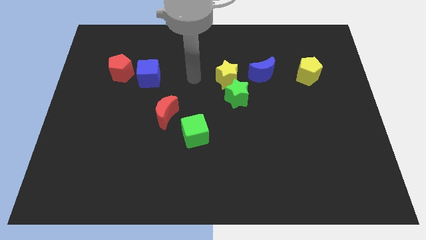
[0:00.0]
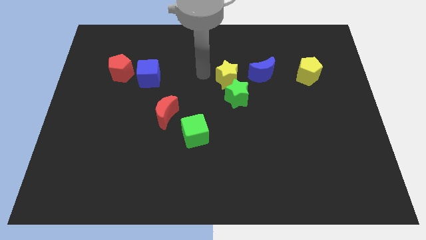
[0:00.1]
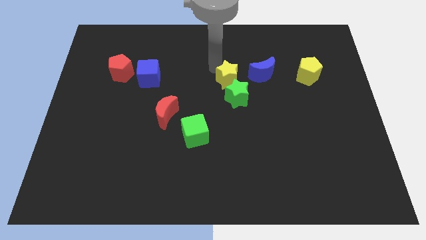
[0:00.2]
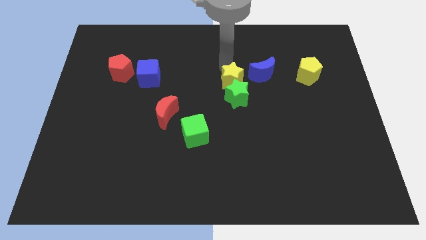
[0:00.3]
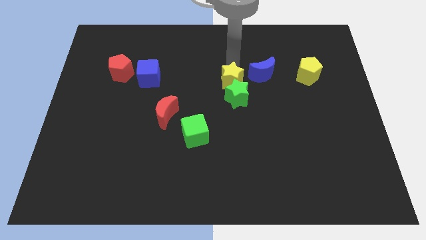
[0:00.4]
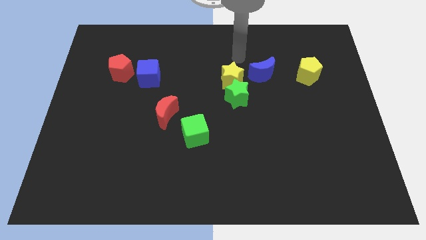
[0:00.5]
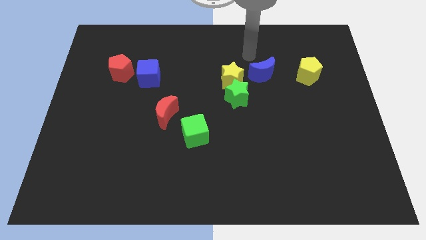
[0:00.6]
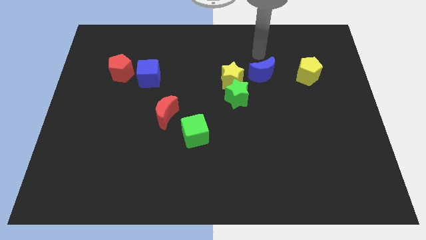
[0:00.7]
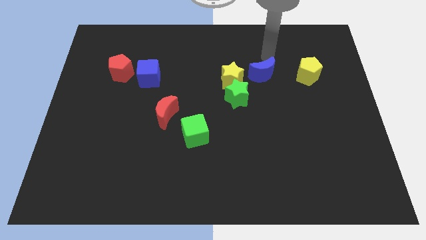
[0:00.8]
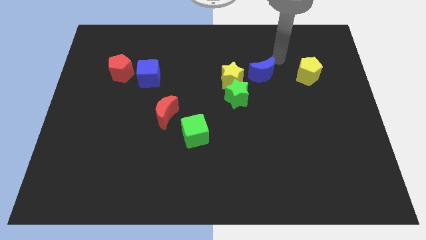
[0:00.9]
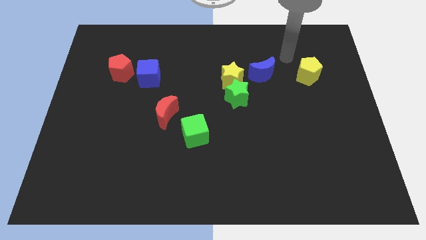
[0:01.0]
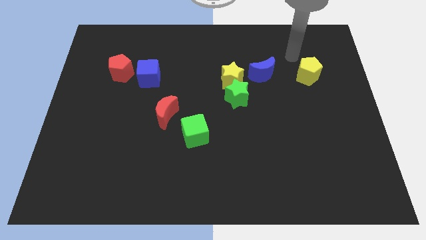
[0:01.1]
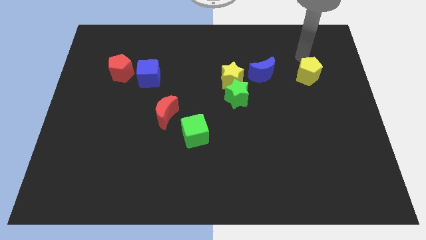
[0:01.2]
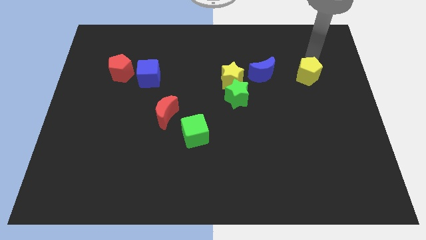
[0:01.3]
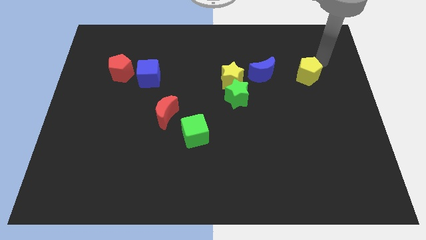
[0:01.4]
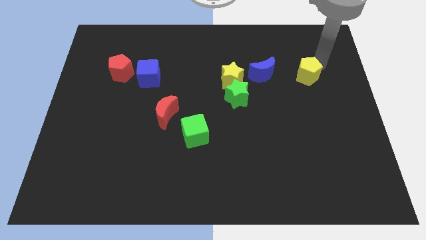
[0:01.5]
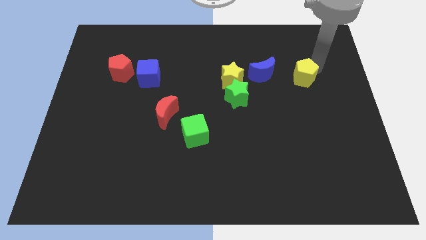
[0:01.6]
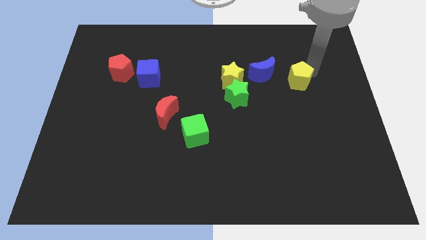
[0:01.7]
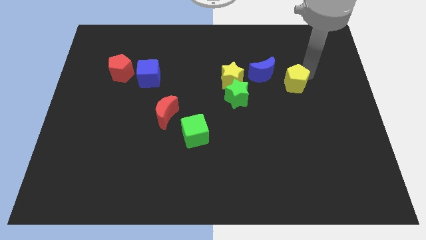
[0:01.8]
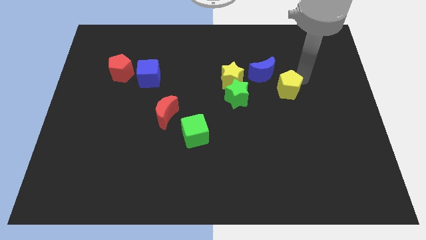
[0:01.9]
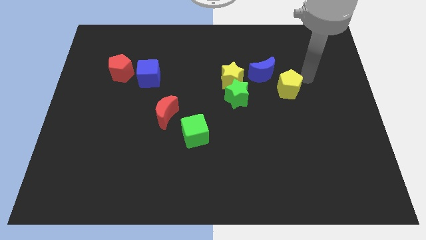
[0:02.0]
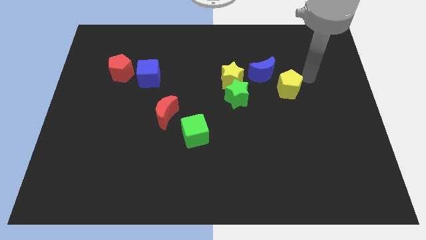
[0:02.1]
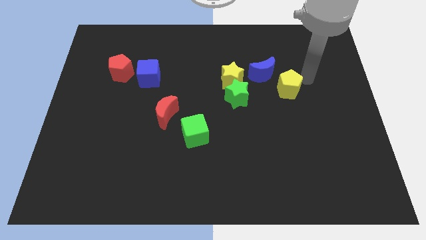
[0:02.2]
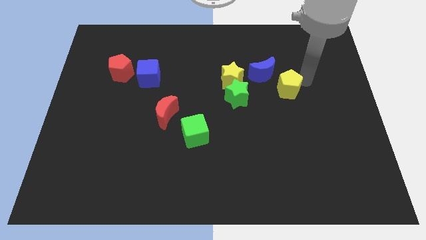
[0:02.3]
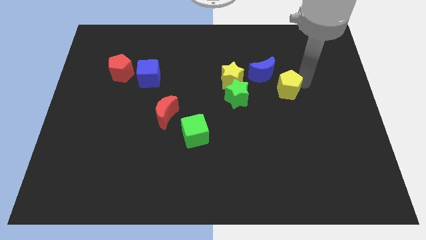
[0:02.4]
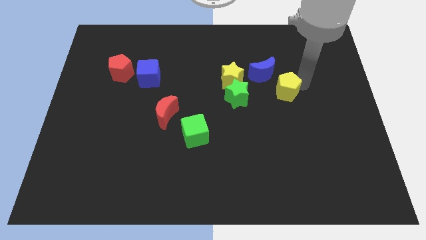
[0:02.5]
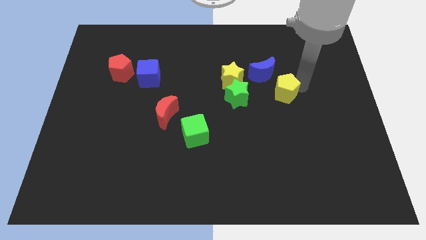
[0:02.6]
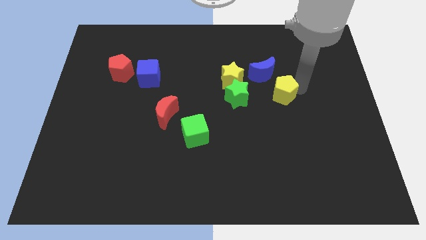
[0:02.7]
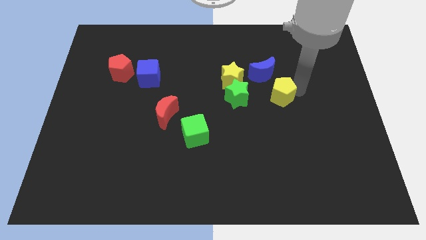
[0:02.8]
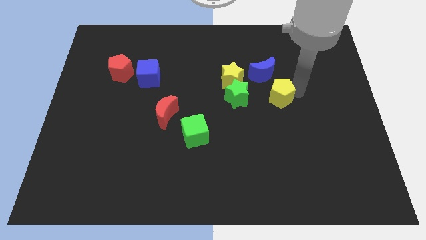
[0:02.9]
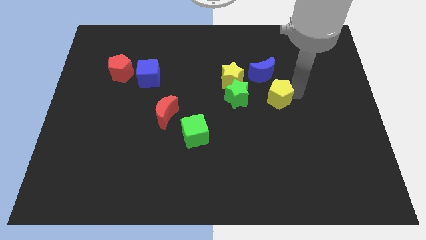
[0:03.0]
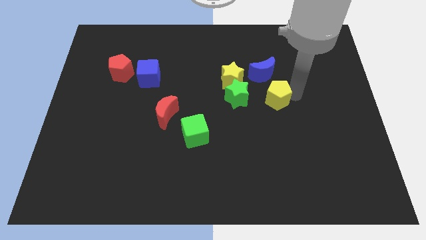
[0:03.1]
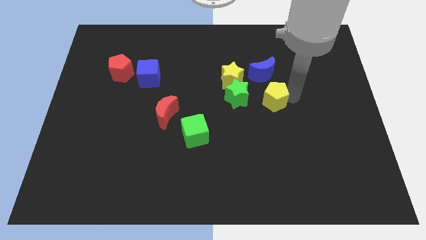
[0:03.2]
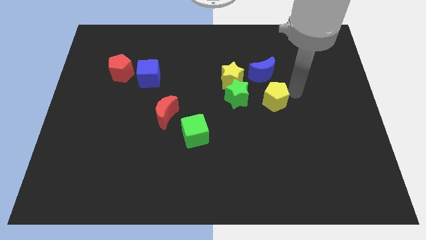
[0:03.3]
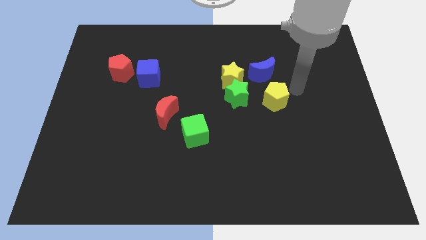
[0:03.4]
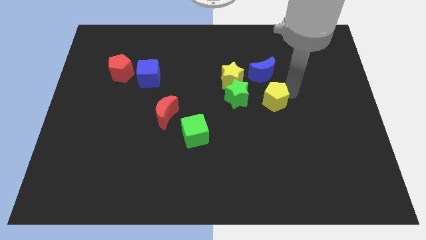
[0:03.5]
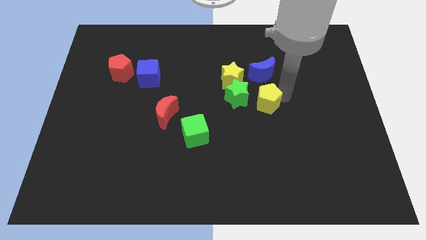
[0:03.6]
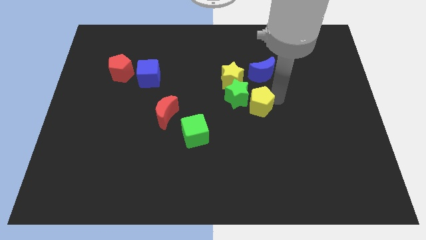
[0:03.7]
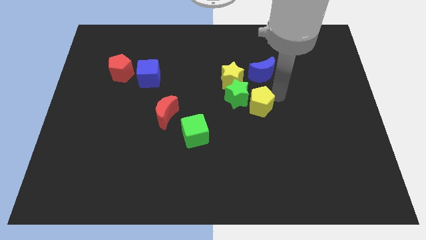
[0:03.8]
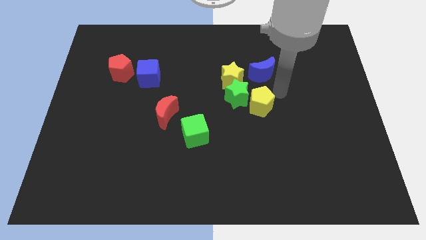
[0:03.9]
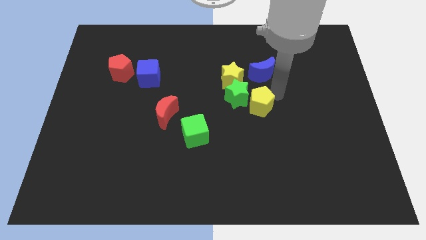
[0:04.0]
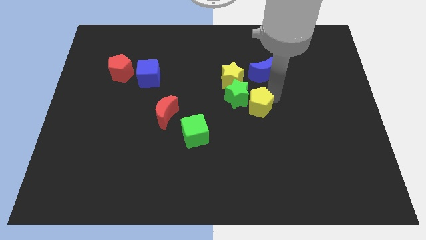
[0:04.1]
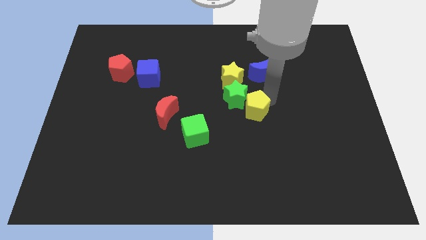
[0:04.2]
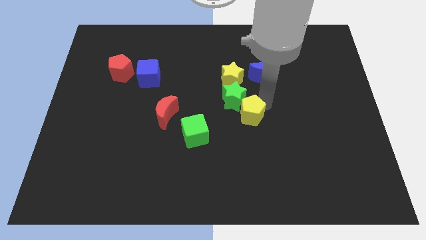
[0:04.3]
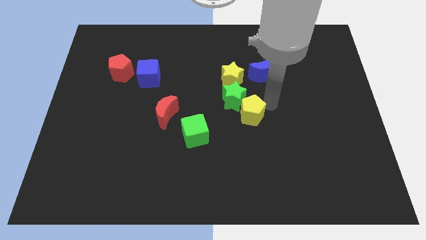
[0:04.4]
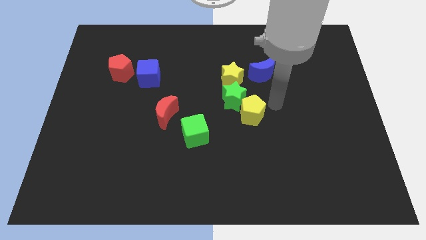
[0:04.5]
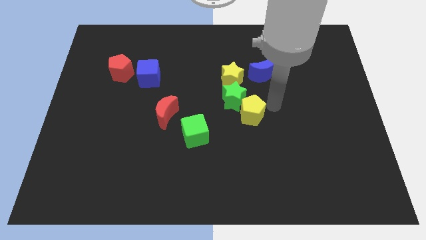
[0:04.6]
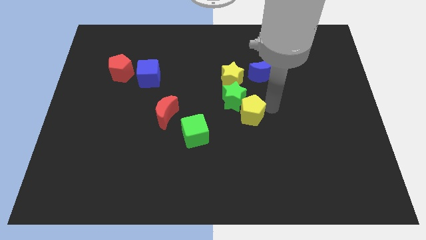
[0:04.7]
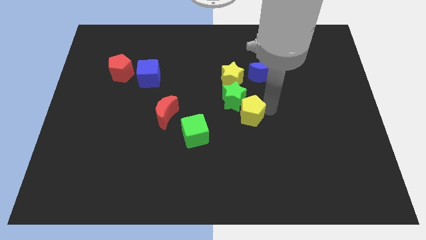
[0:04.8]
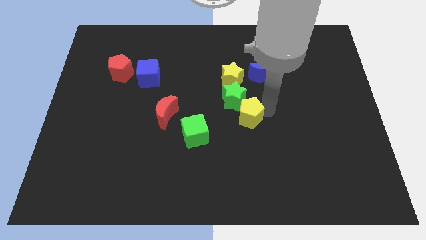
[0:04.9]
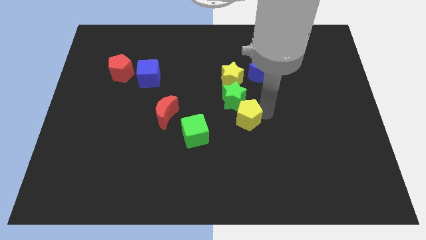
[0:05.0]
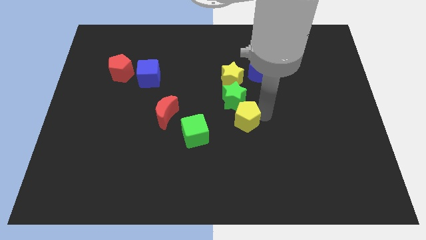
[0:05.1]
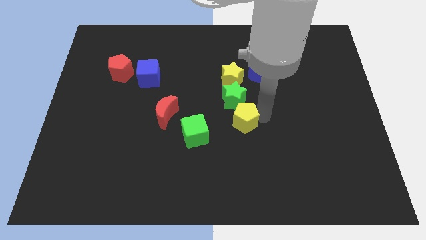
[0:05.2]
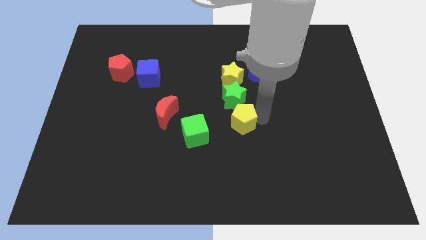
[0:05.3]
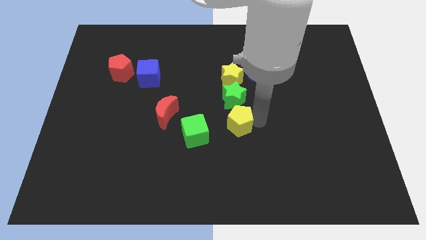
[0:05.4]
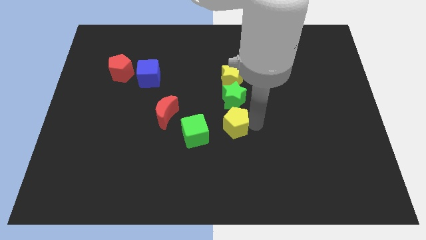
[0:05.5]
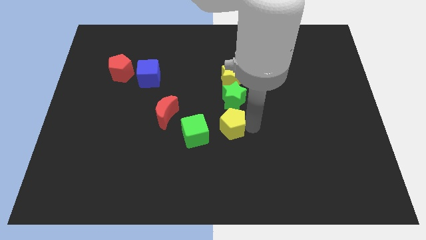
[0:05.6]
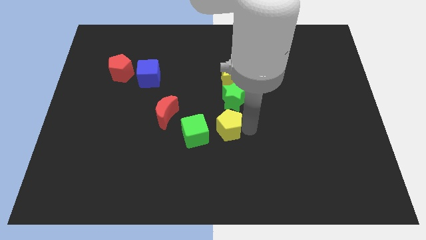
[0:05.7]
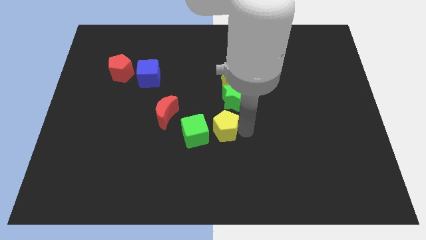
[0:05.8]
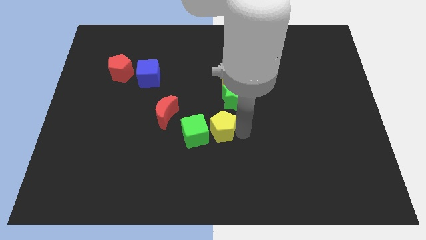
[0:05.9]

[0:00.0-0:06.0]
put the yellow pentagon close to the green cube

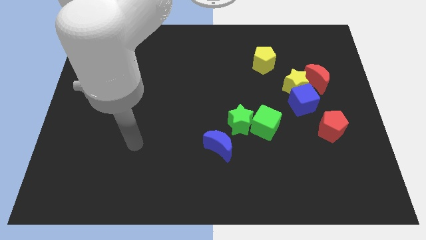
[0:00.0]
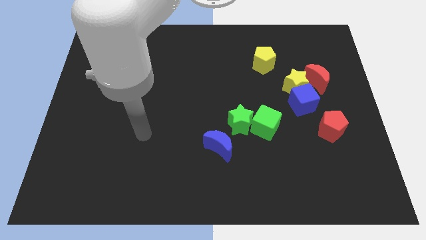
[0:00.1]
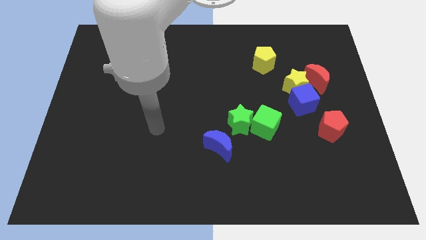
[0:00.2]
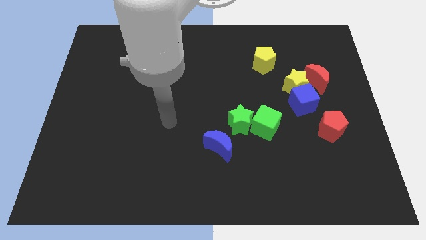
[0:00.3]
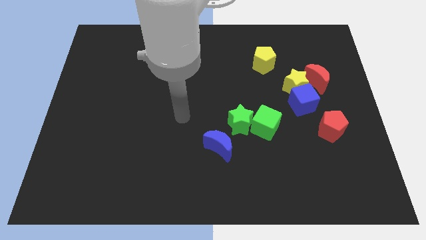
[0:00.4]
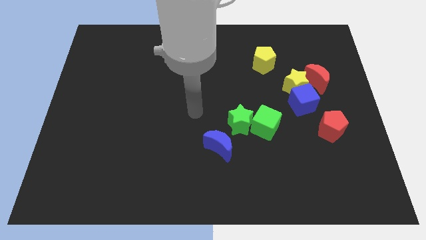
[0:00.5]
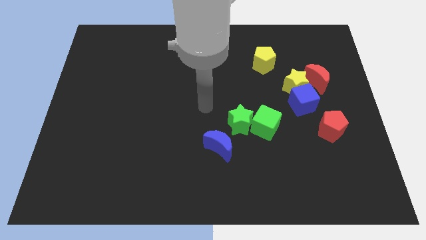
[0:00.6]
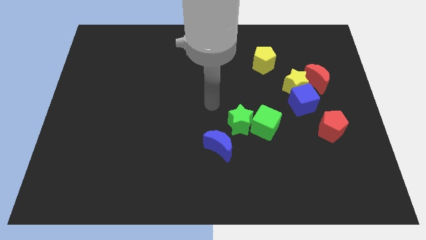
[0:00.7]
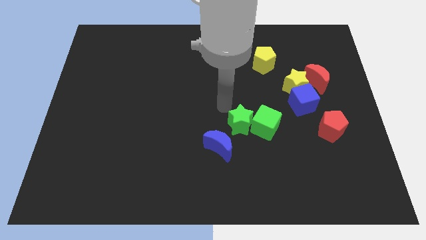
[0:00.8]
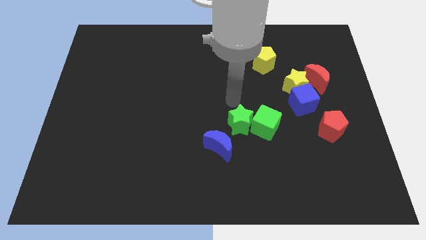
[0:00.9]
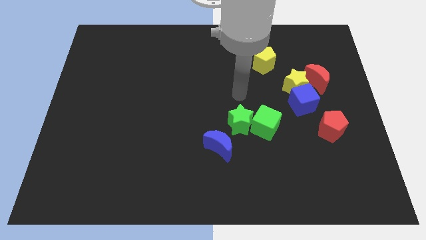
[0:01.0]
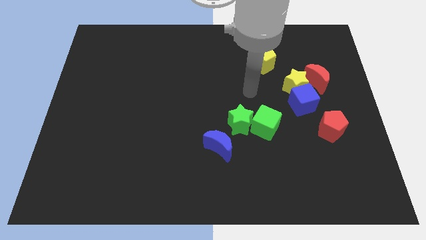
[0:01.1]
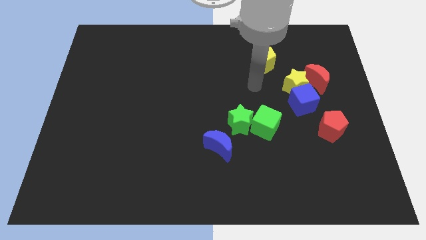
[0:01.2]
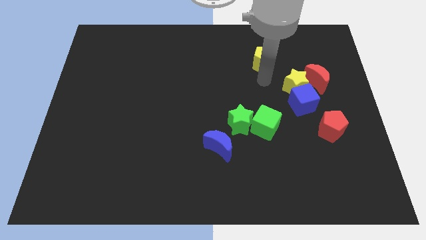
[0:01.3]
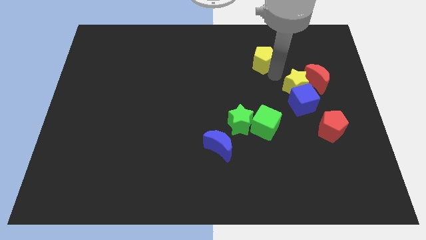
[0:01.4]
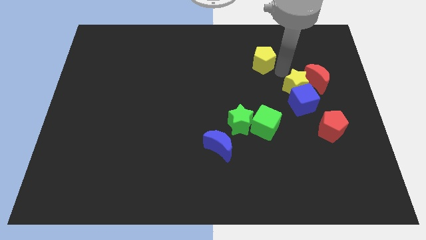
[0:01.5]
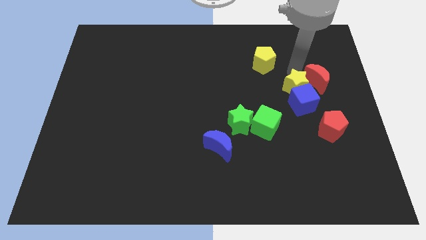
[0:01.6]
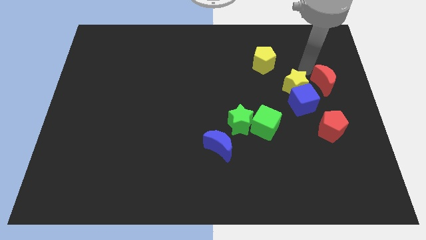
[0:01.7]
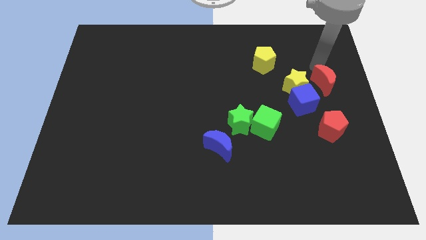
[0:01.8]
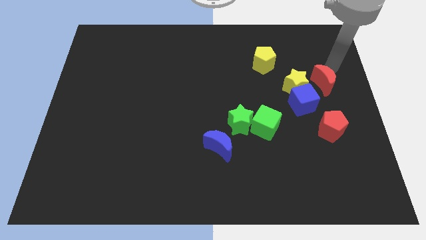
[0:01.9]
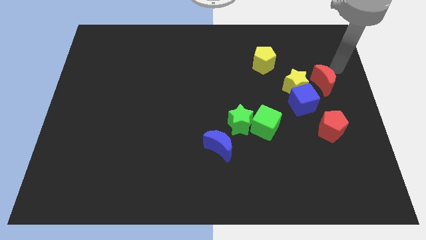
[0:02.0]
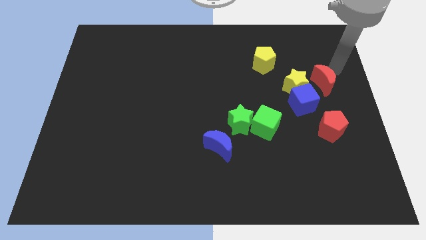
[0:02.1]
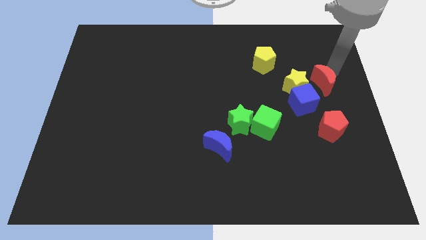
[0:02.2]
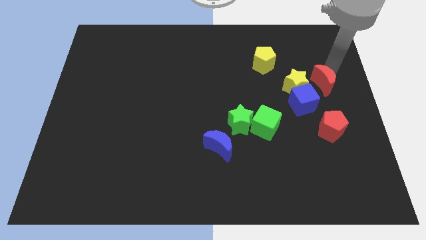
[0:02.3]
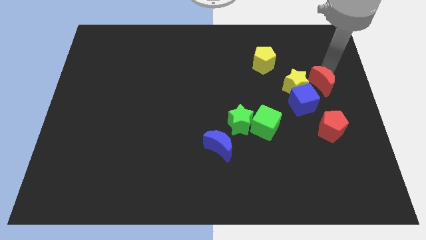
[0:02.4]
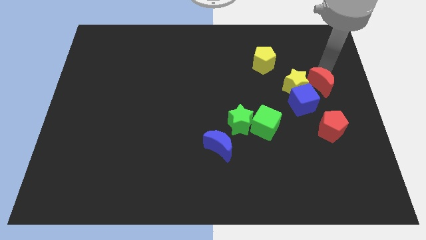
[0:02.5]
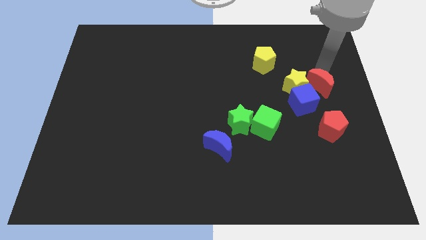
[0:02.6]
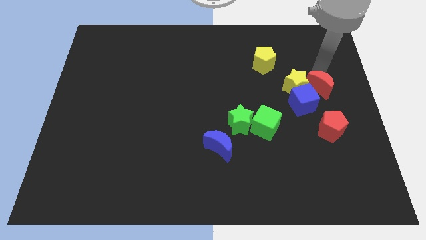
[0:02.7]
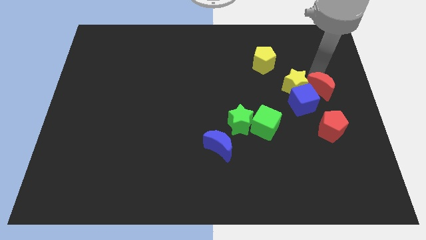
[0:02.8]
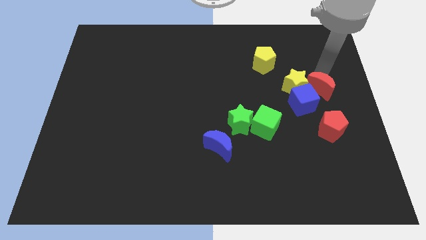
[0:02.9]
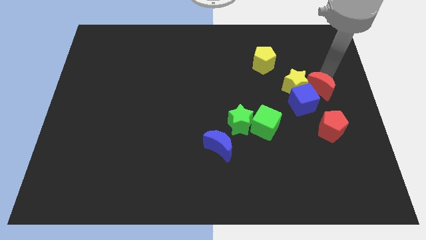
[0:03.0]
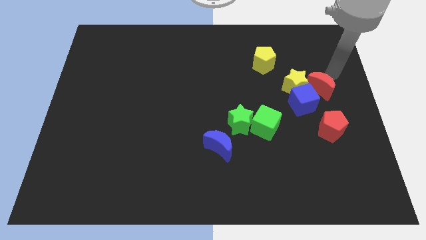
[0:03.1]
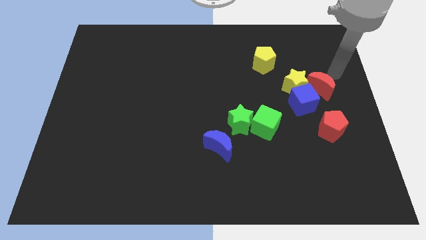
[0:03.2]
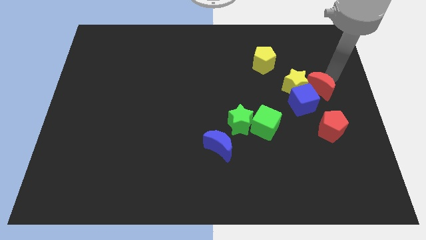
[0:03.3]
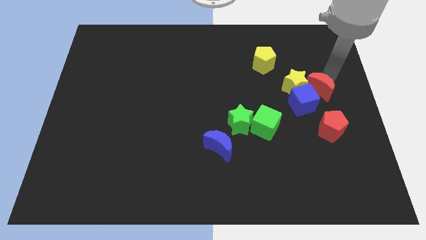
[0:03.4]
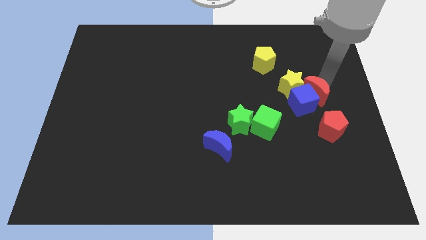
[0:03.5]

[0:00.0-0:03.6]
push the red moon next to the blue cube
